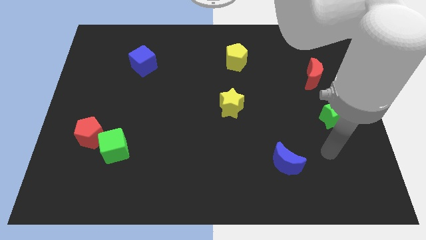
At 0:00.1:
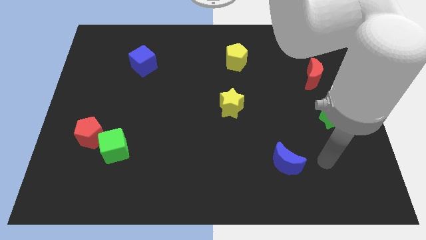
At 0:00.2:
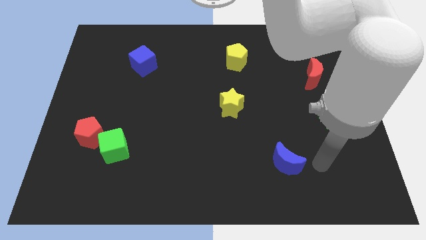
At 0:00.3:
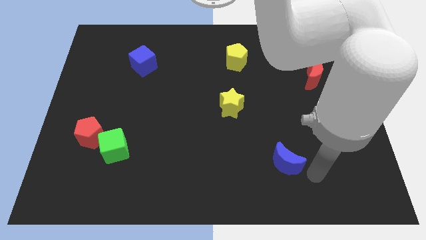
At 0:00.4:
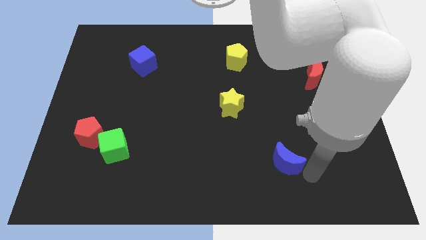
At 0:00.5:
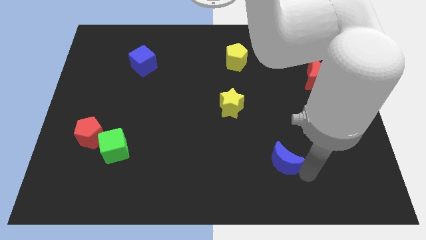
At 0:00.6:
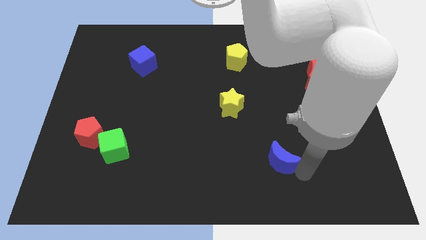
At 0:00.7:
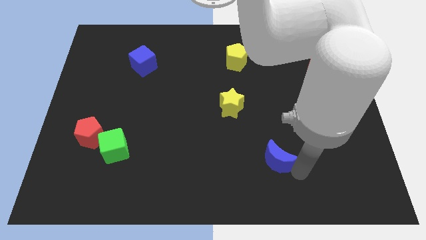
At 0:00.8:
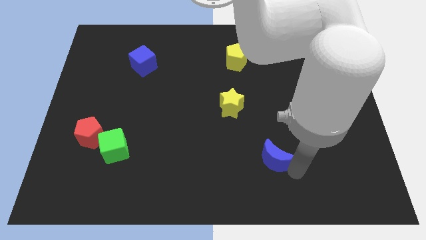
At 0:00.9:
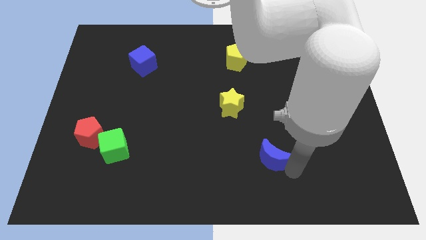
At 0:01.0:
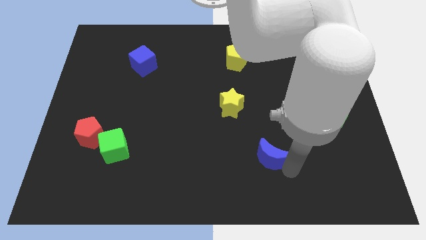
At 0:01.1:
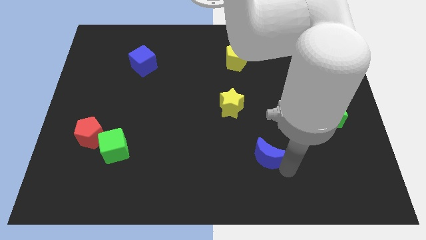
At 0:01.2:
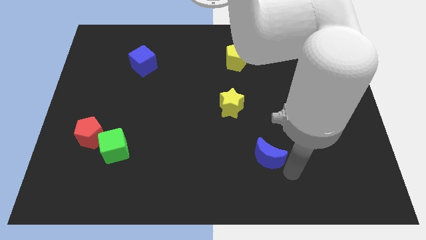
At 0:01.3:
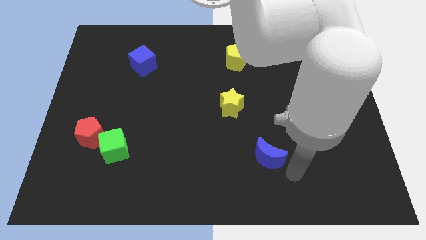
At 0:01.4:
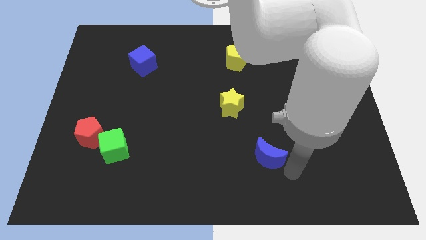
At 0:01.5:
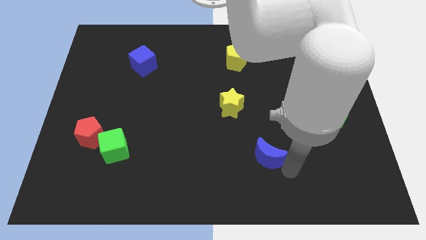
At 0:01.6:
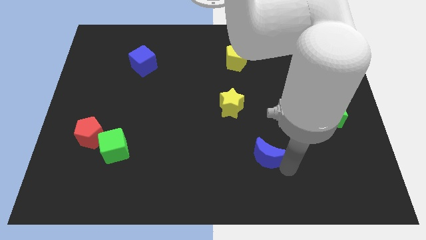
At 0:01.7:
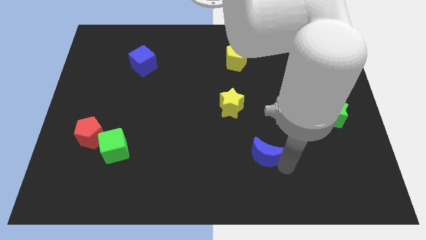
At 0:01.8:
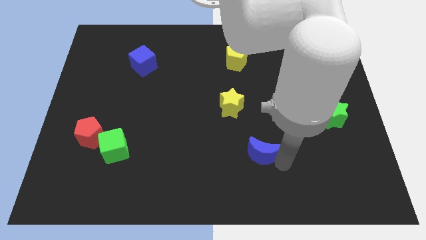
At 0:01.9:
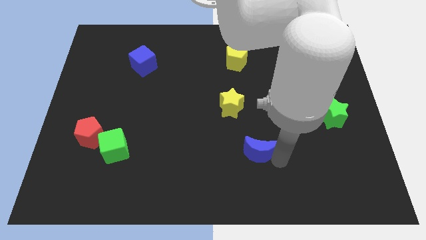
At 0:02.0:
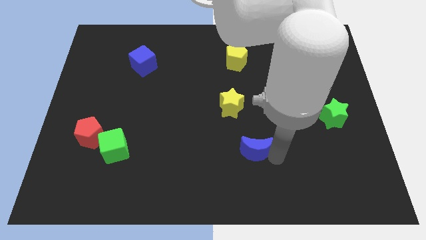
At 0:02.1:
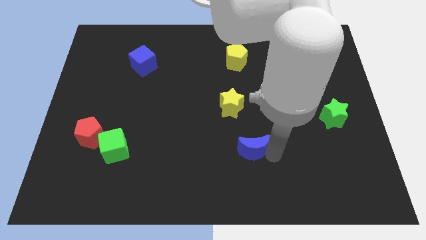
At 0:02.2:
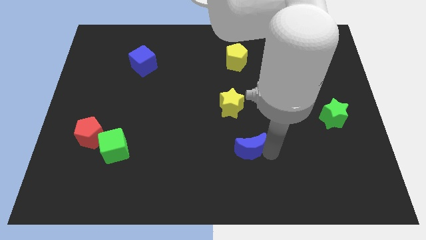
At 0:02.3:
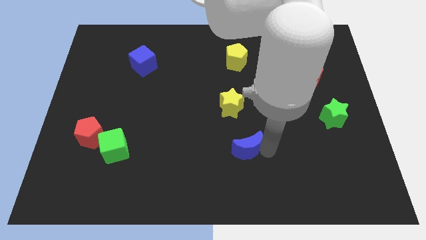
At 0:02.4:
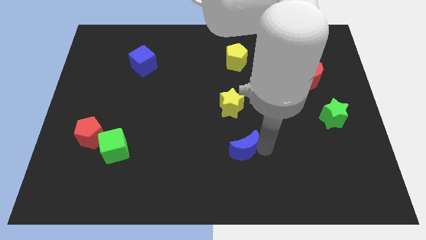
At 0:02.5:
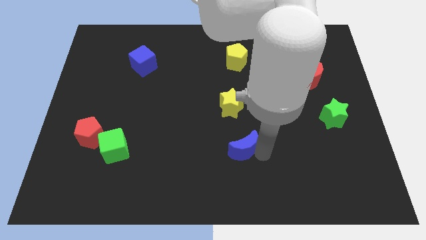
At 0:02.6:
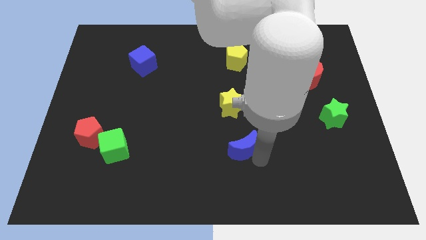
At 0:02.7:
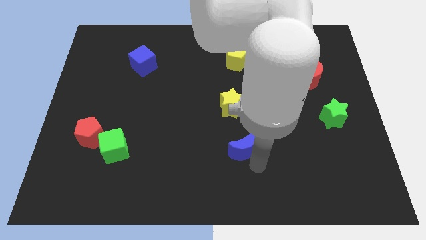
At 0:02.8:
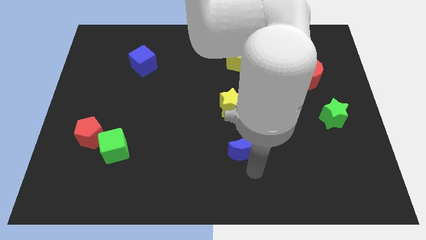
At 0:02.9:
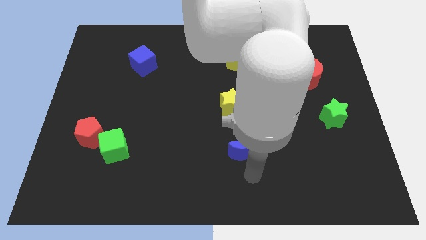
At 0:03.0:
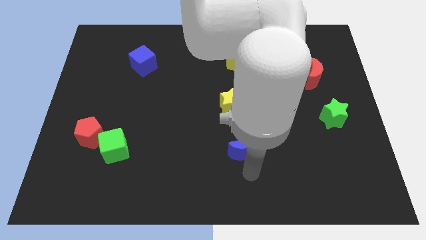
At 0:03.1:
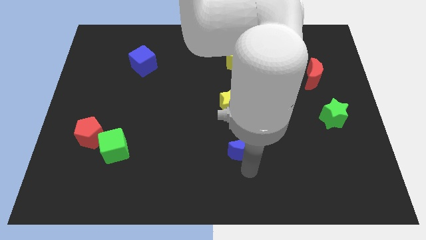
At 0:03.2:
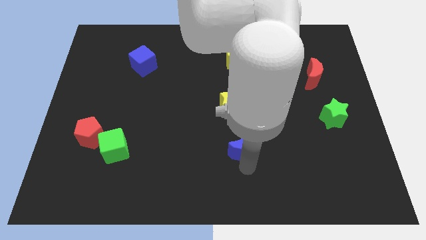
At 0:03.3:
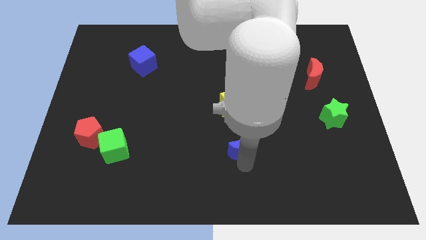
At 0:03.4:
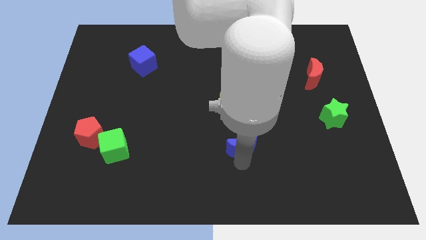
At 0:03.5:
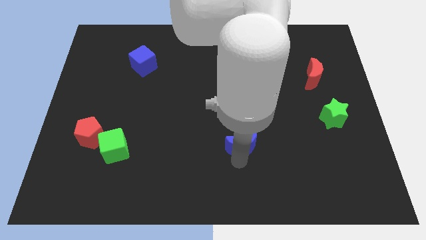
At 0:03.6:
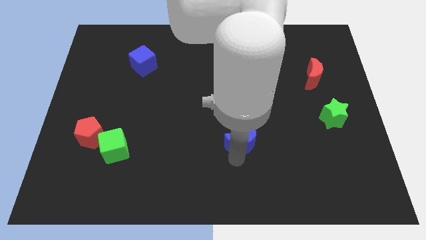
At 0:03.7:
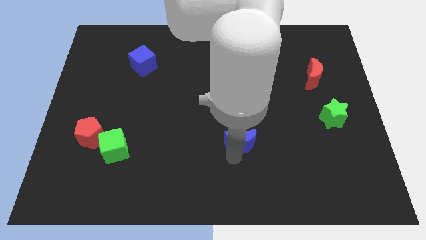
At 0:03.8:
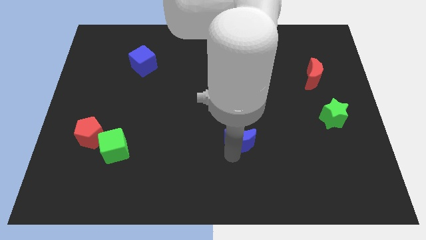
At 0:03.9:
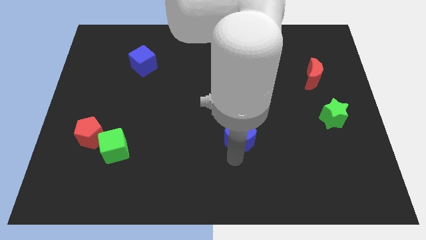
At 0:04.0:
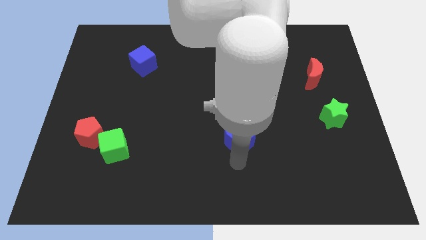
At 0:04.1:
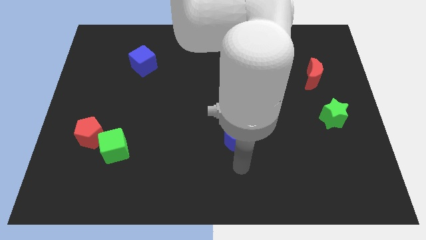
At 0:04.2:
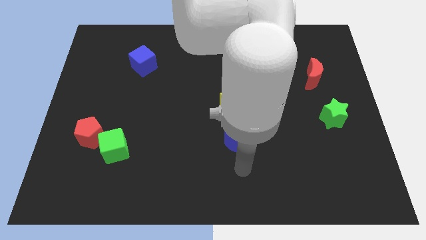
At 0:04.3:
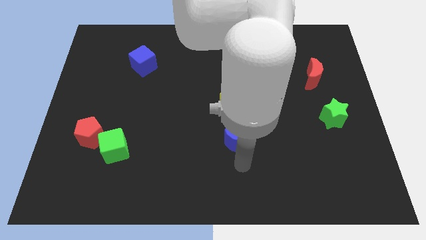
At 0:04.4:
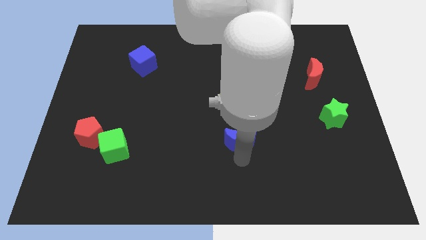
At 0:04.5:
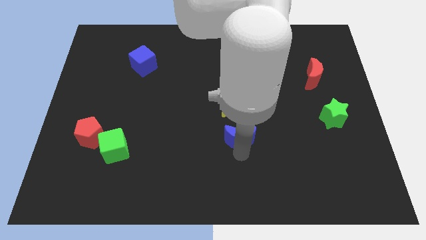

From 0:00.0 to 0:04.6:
move the blue moon to the center

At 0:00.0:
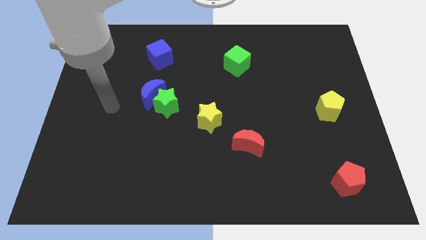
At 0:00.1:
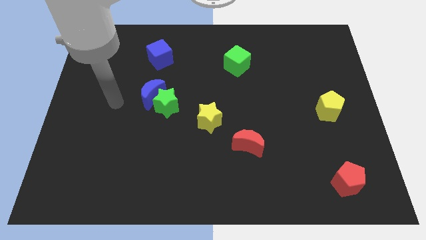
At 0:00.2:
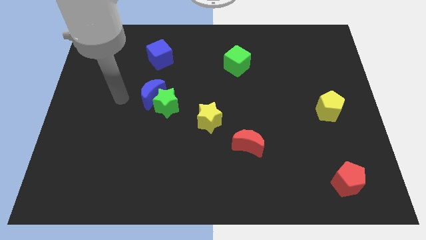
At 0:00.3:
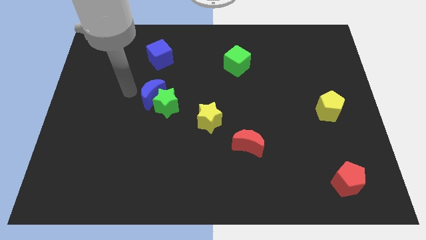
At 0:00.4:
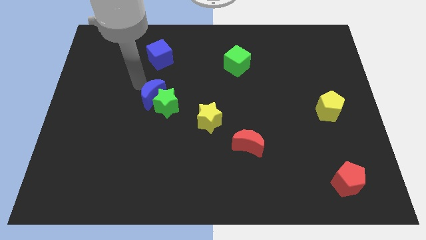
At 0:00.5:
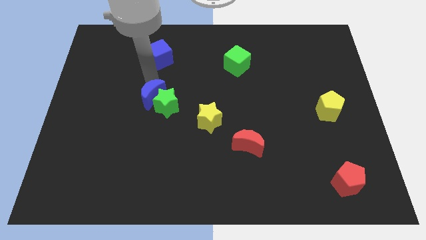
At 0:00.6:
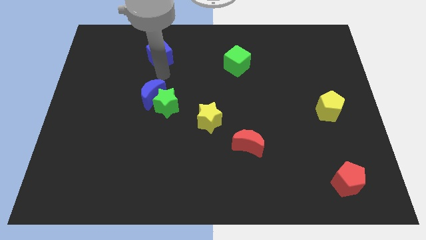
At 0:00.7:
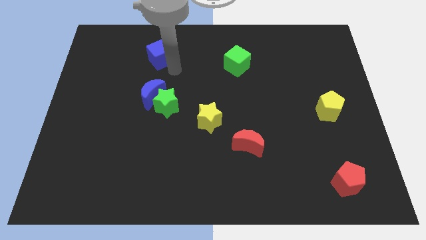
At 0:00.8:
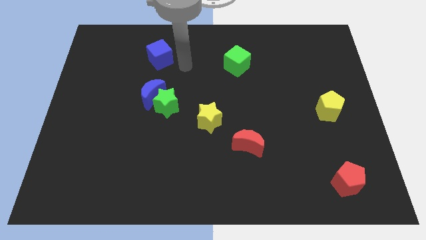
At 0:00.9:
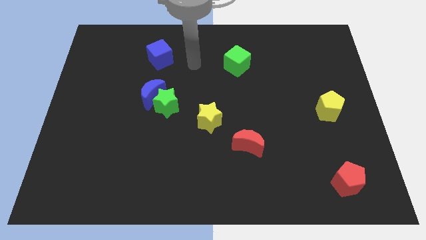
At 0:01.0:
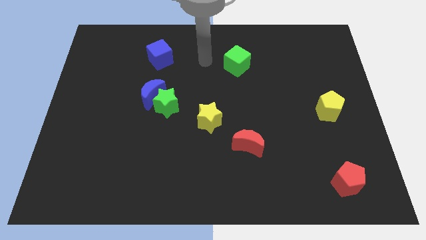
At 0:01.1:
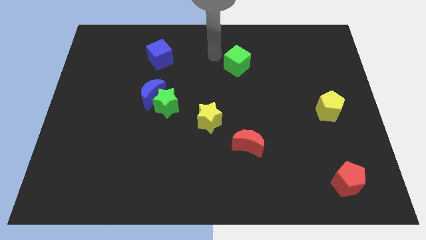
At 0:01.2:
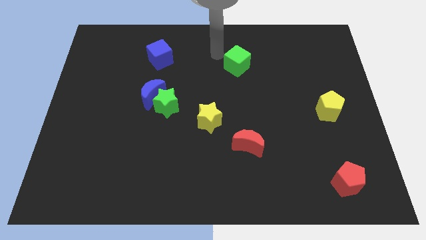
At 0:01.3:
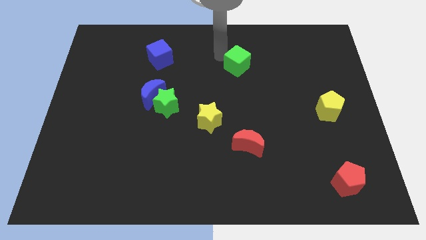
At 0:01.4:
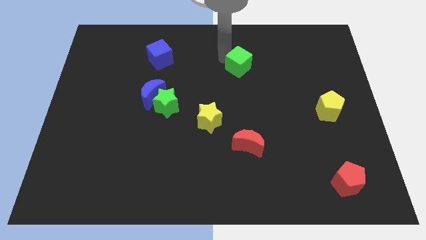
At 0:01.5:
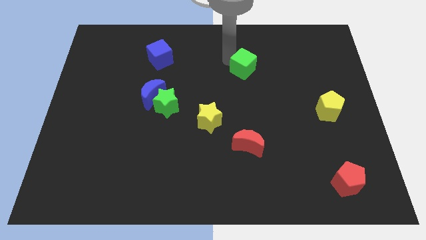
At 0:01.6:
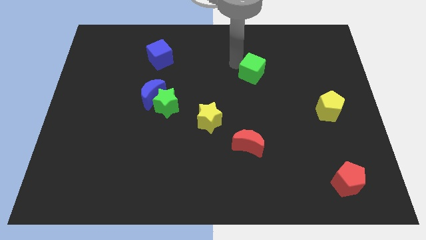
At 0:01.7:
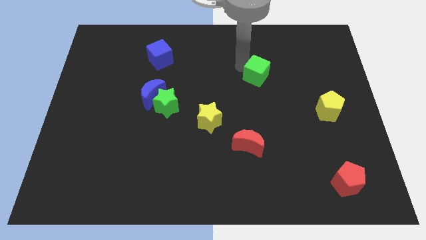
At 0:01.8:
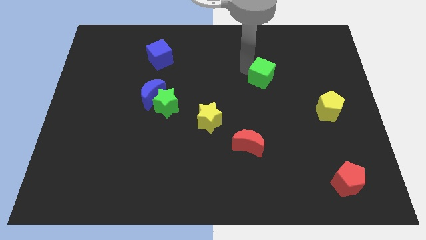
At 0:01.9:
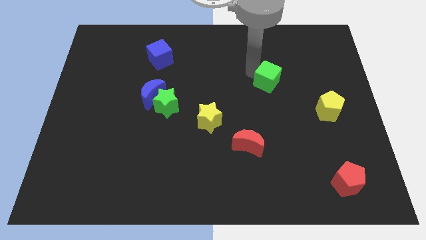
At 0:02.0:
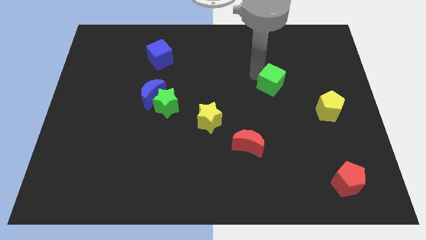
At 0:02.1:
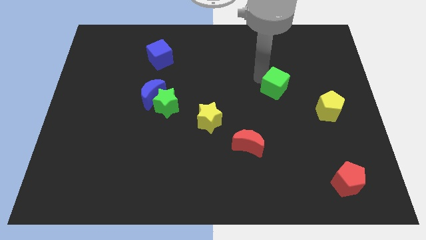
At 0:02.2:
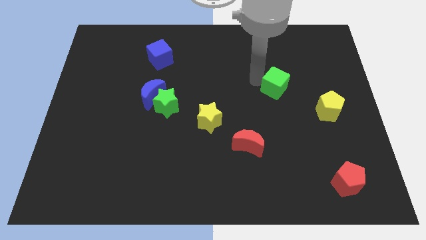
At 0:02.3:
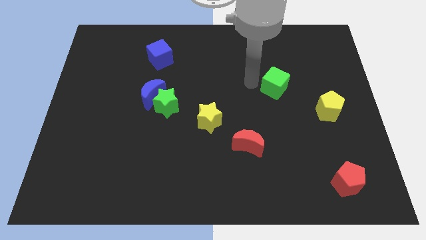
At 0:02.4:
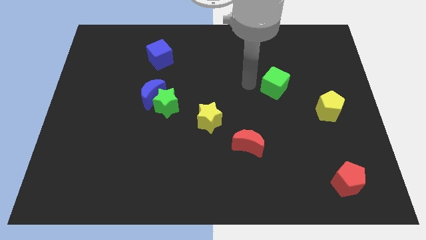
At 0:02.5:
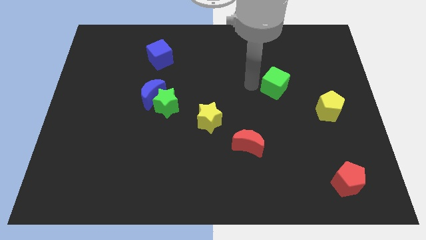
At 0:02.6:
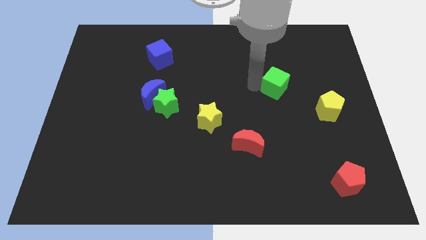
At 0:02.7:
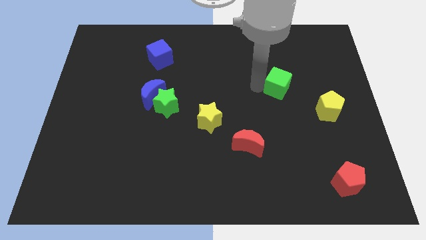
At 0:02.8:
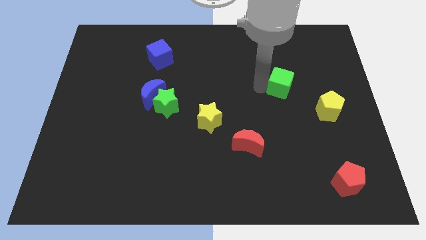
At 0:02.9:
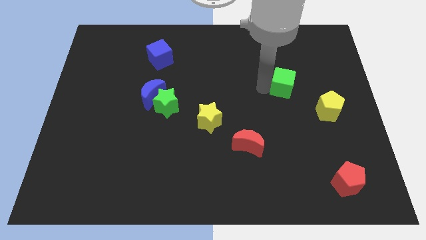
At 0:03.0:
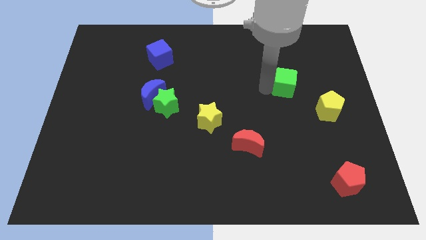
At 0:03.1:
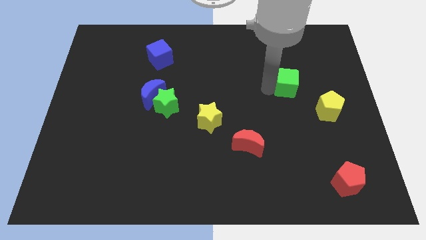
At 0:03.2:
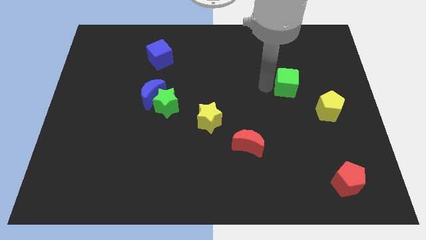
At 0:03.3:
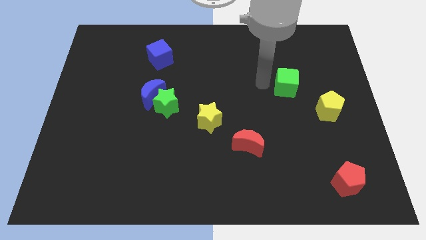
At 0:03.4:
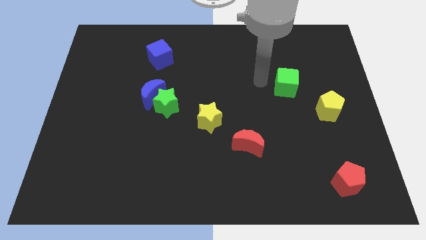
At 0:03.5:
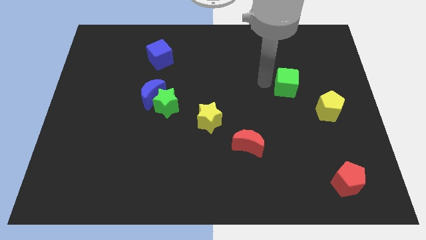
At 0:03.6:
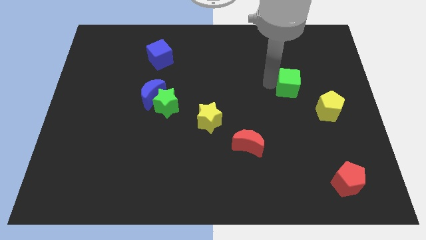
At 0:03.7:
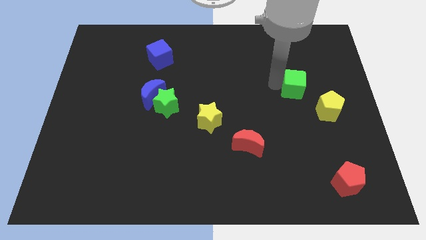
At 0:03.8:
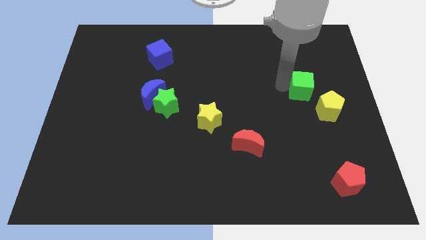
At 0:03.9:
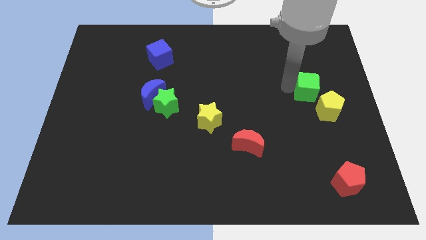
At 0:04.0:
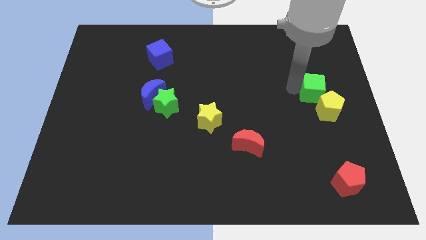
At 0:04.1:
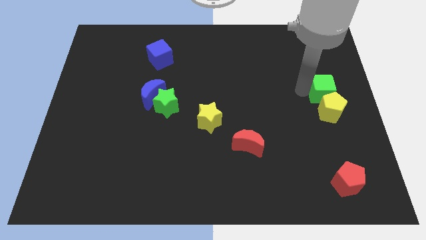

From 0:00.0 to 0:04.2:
move the green cube to the right side of the board
